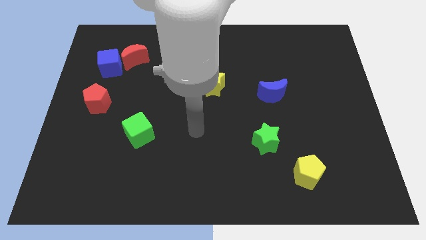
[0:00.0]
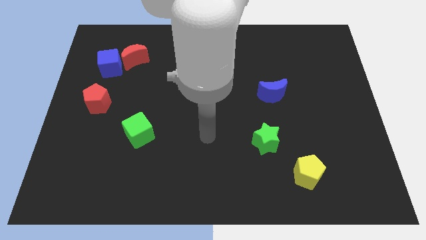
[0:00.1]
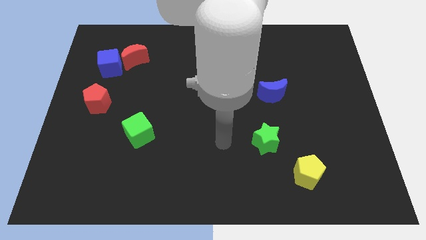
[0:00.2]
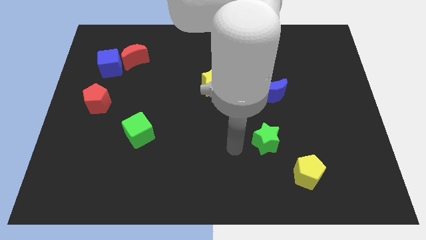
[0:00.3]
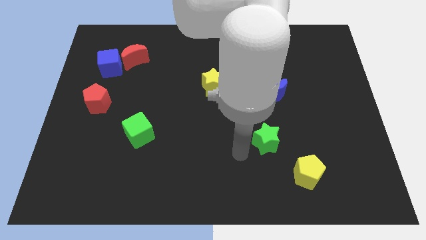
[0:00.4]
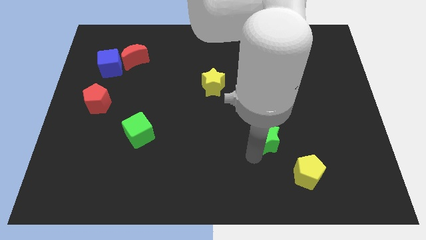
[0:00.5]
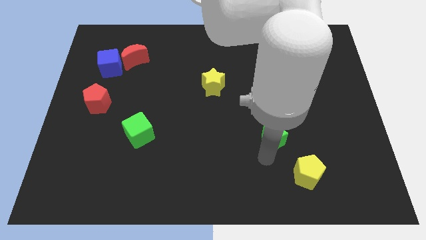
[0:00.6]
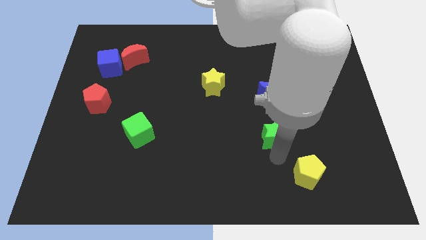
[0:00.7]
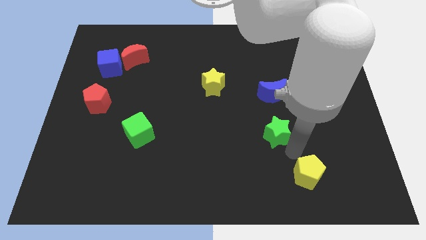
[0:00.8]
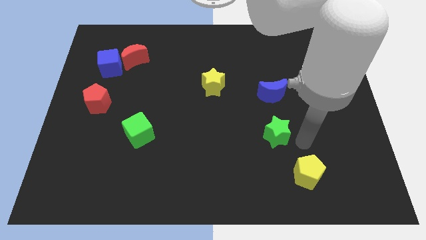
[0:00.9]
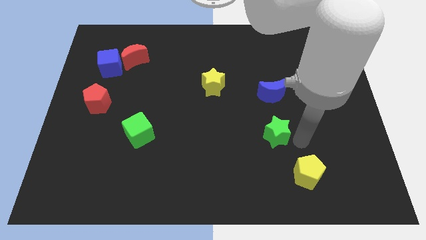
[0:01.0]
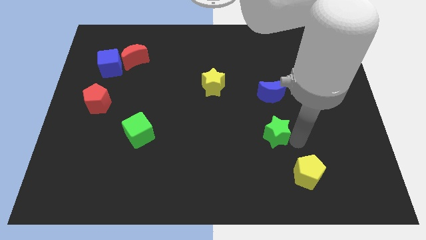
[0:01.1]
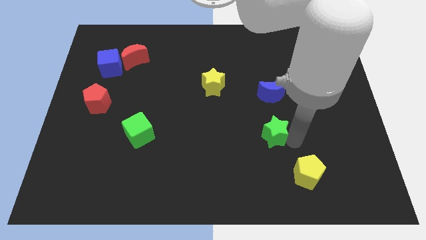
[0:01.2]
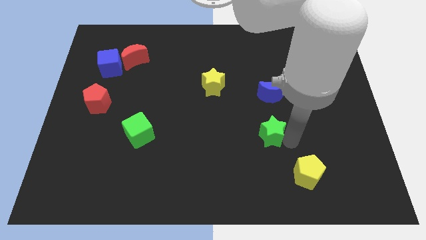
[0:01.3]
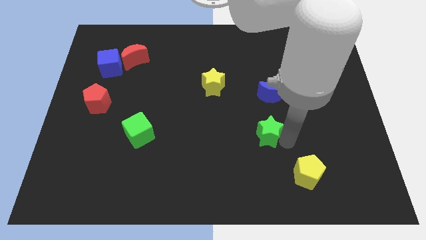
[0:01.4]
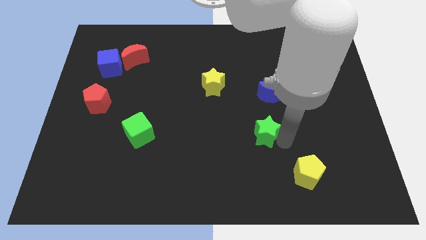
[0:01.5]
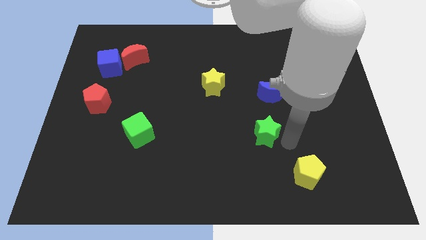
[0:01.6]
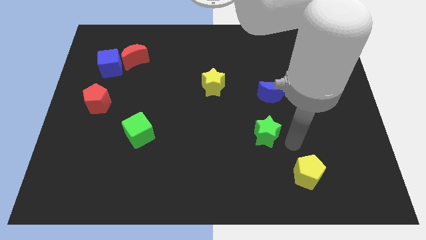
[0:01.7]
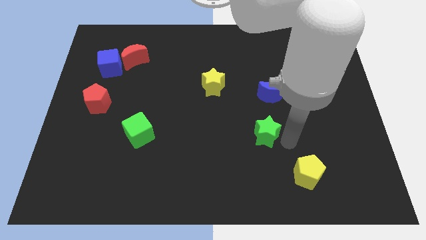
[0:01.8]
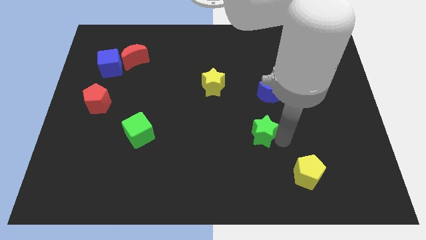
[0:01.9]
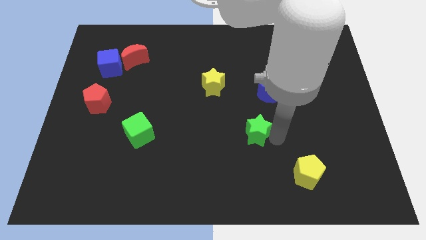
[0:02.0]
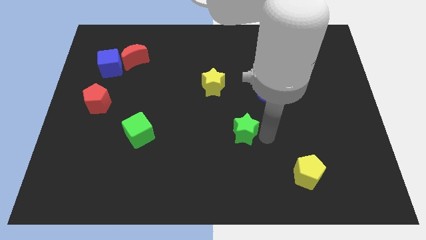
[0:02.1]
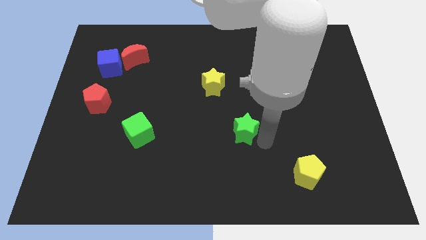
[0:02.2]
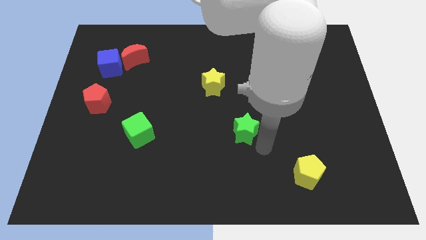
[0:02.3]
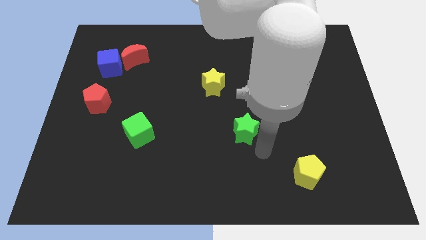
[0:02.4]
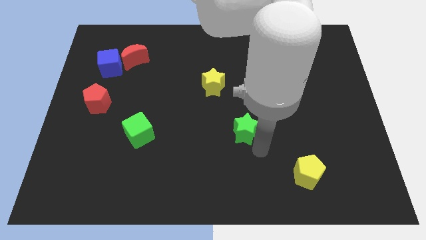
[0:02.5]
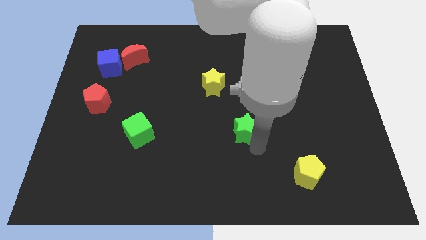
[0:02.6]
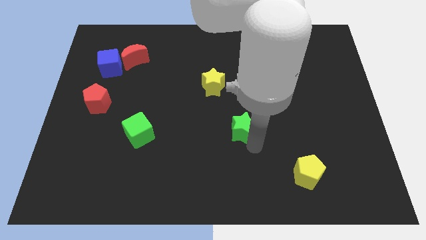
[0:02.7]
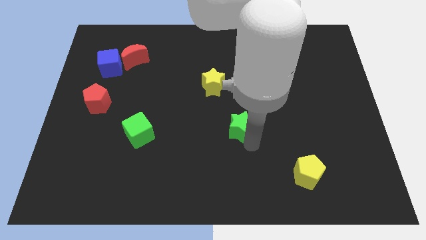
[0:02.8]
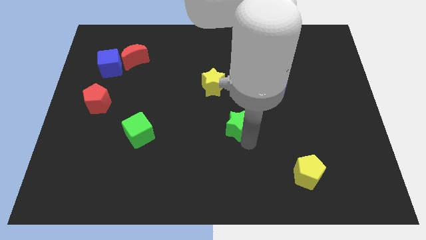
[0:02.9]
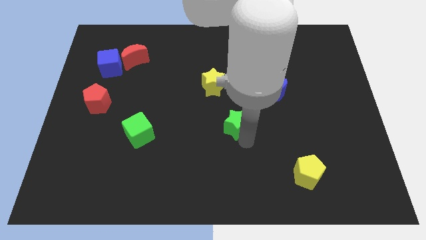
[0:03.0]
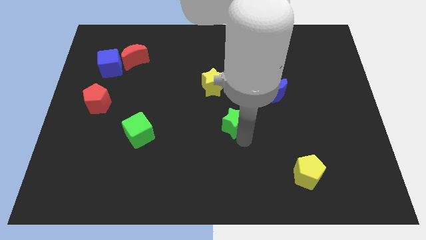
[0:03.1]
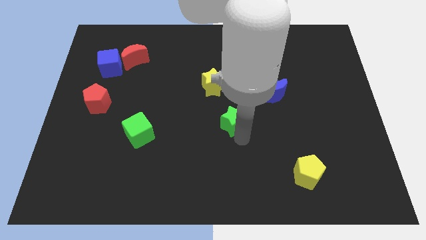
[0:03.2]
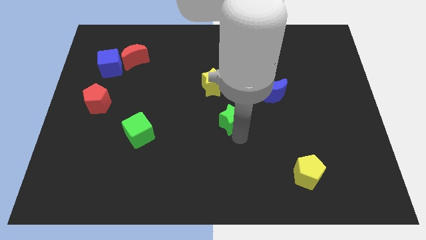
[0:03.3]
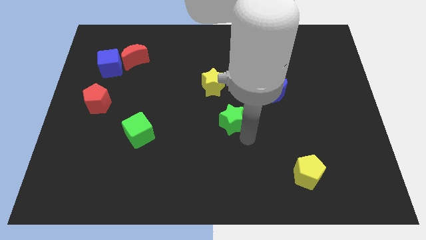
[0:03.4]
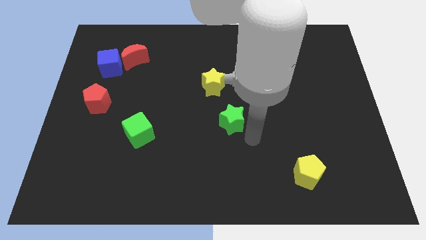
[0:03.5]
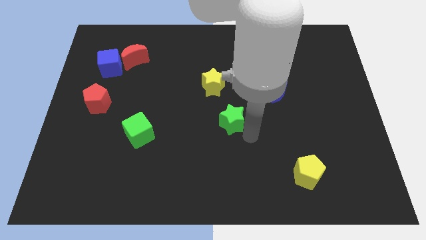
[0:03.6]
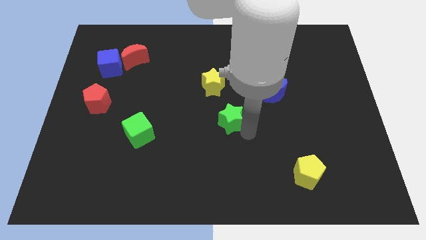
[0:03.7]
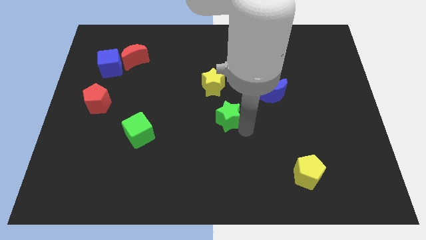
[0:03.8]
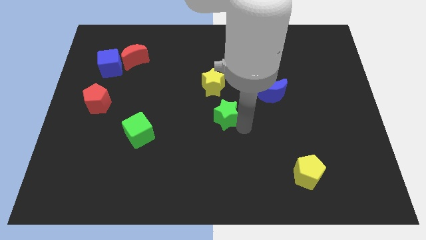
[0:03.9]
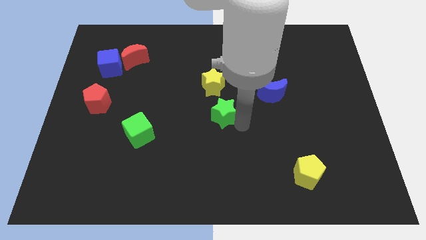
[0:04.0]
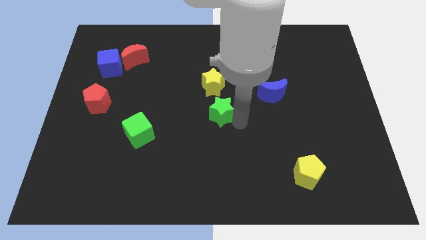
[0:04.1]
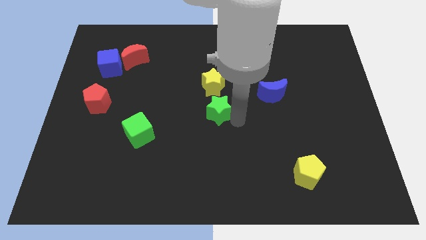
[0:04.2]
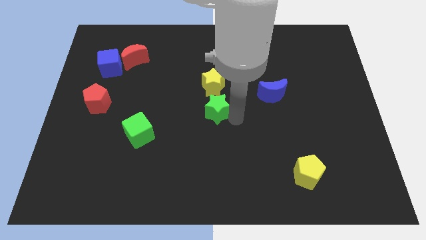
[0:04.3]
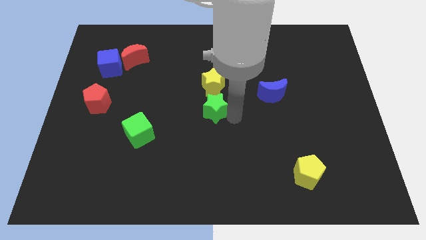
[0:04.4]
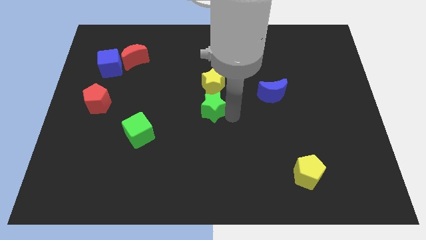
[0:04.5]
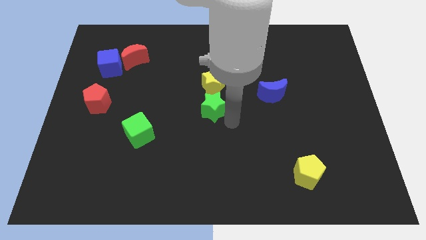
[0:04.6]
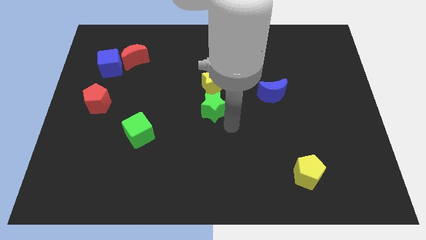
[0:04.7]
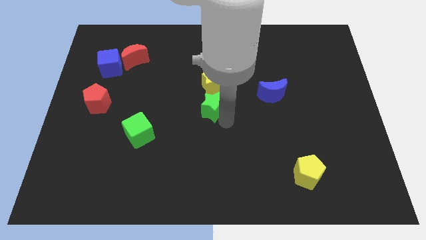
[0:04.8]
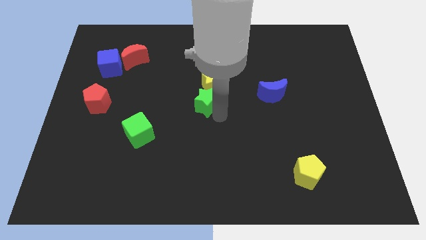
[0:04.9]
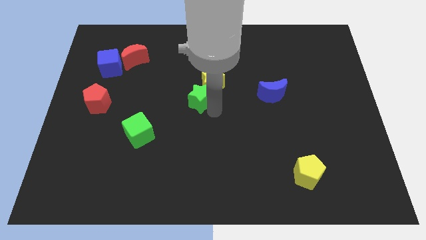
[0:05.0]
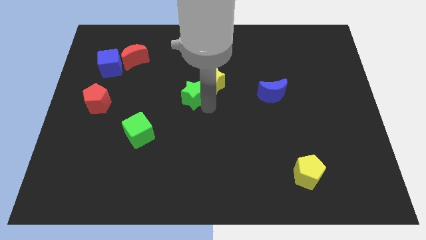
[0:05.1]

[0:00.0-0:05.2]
move the green star upwards and left

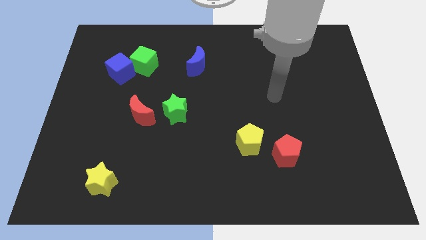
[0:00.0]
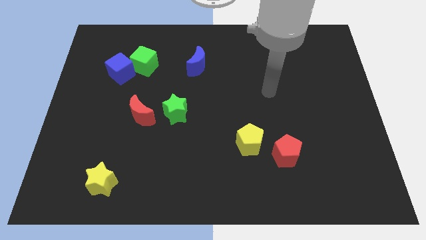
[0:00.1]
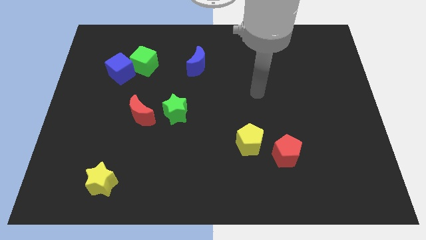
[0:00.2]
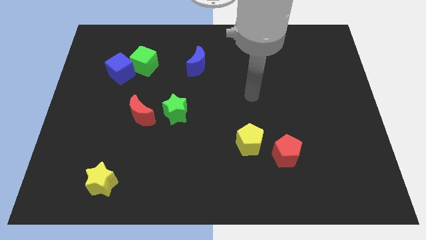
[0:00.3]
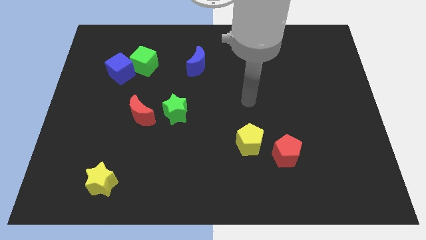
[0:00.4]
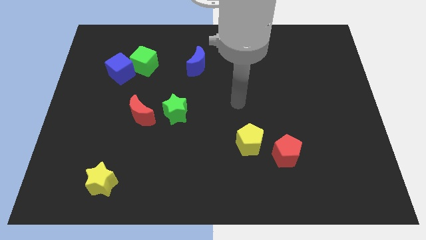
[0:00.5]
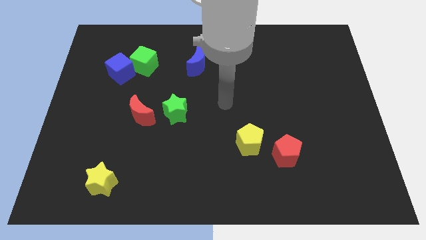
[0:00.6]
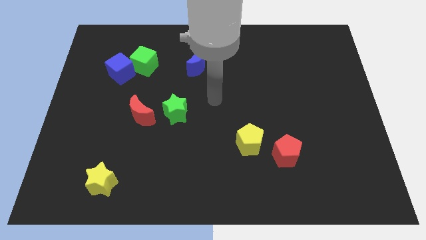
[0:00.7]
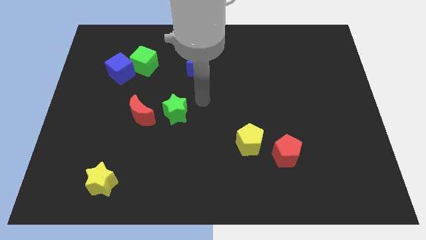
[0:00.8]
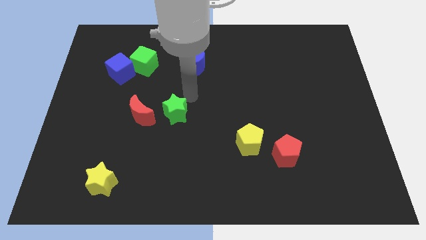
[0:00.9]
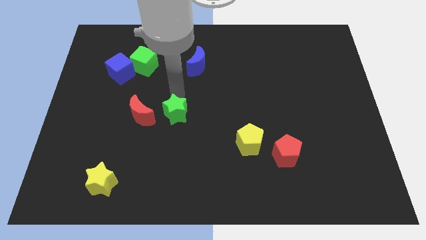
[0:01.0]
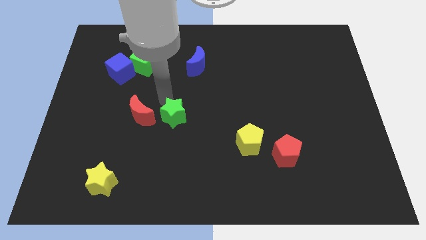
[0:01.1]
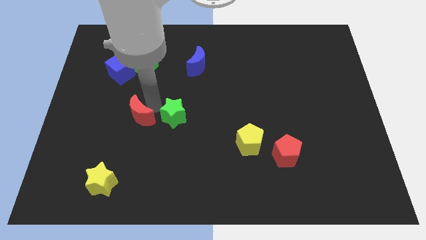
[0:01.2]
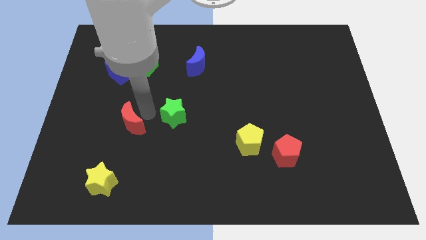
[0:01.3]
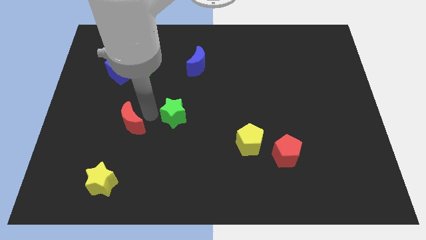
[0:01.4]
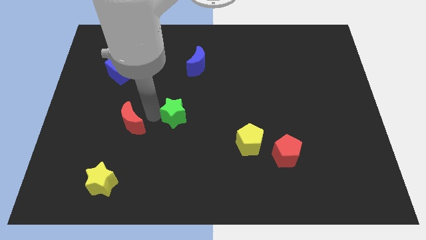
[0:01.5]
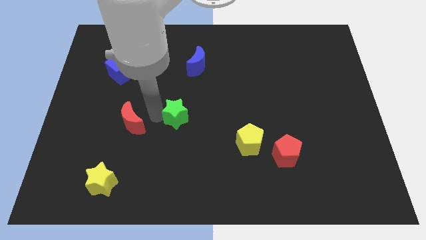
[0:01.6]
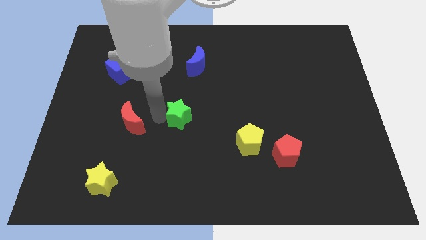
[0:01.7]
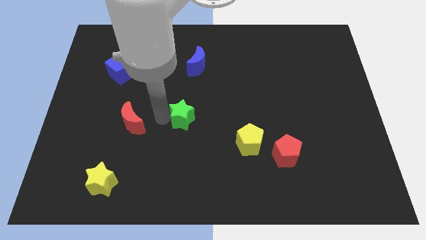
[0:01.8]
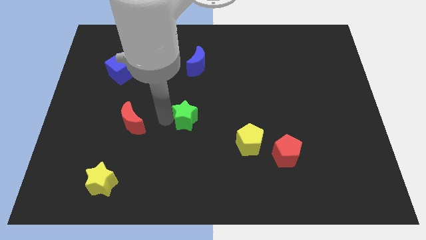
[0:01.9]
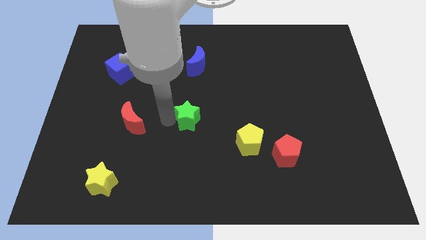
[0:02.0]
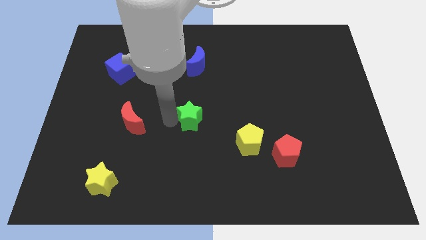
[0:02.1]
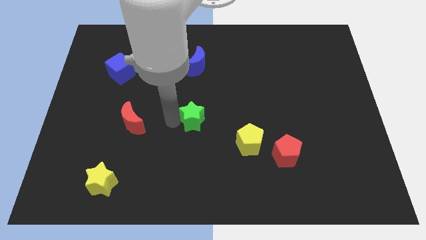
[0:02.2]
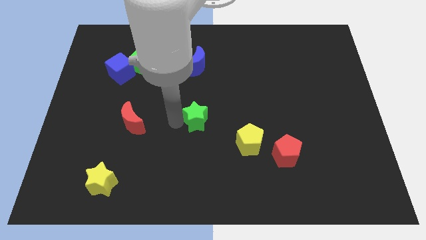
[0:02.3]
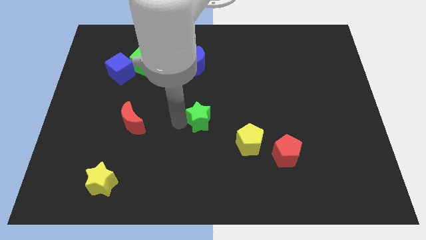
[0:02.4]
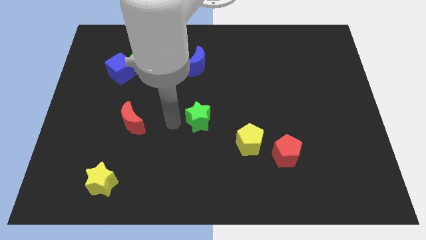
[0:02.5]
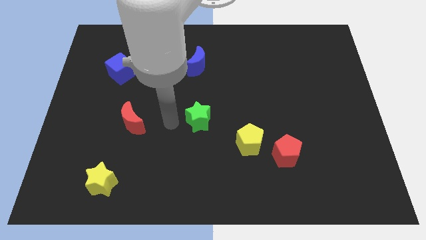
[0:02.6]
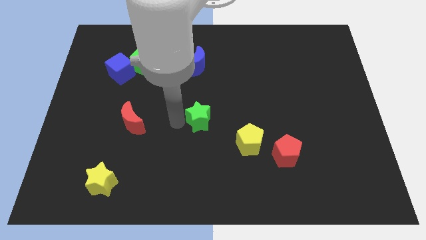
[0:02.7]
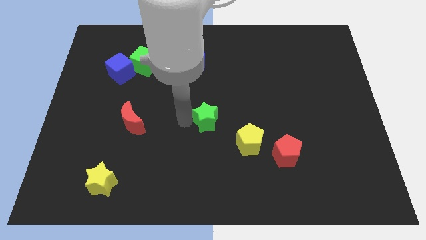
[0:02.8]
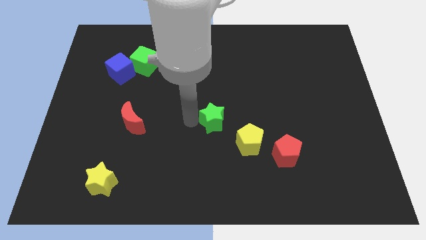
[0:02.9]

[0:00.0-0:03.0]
slide the green star slightly right
